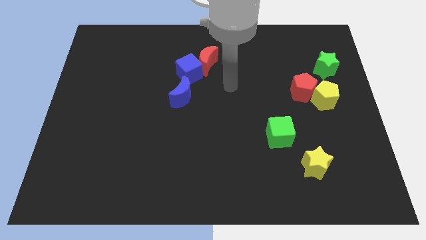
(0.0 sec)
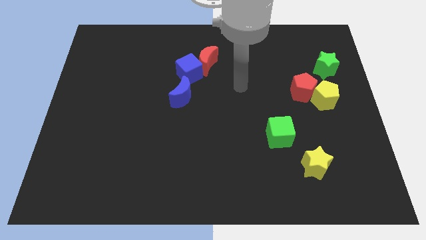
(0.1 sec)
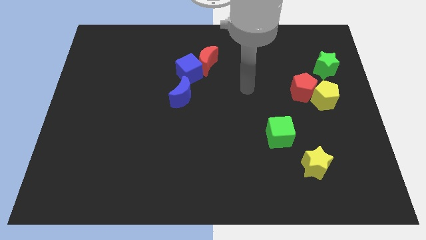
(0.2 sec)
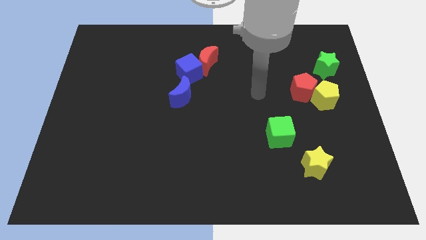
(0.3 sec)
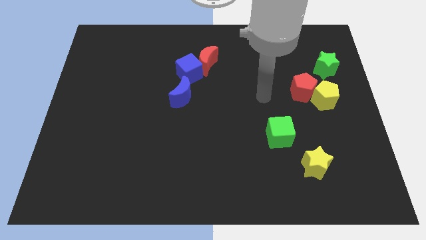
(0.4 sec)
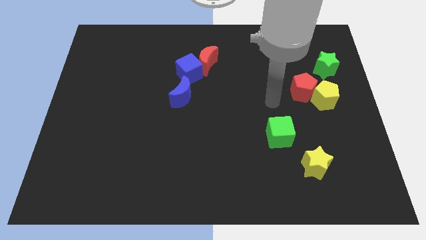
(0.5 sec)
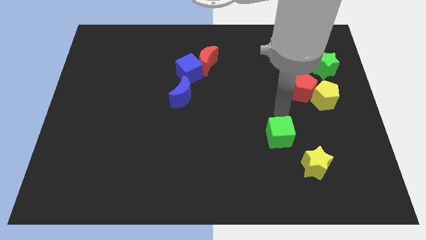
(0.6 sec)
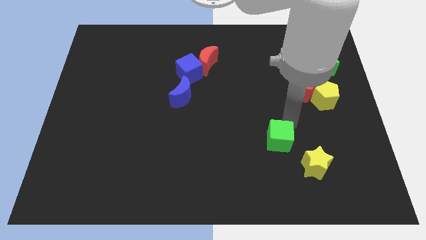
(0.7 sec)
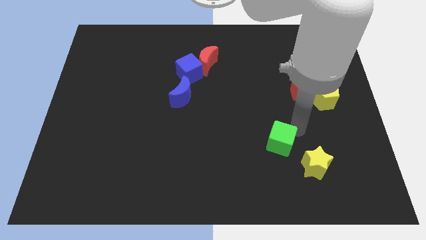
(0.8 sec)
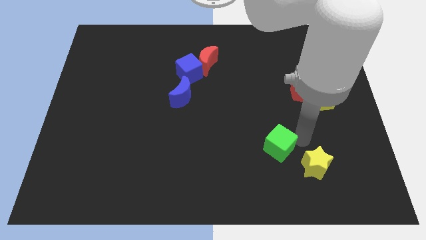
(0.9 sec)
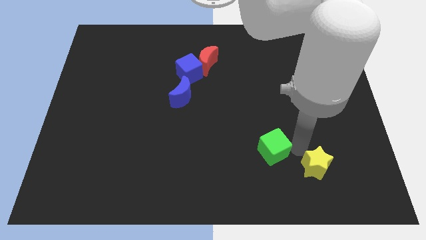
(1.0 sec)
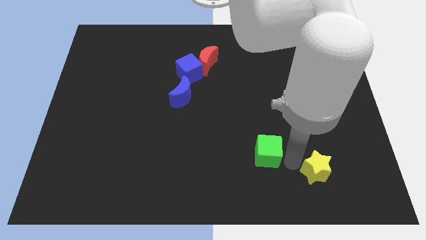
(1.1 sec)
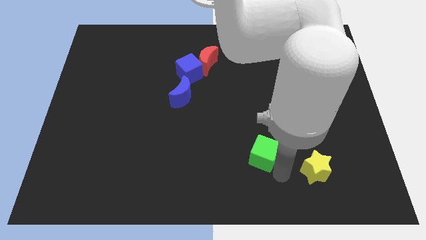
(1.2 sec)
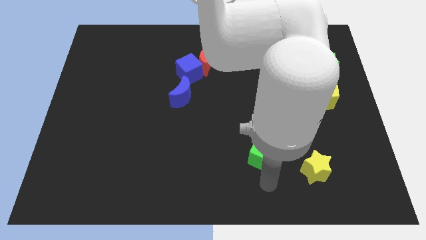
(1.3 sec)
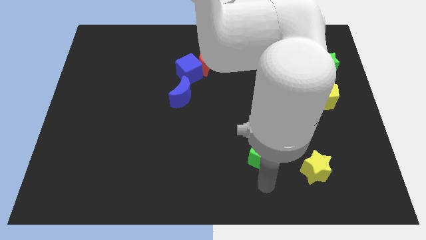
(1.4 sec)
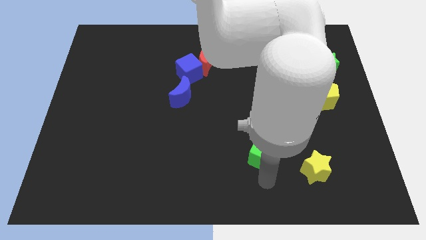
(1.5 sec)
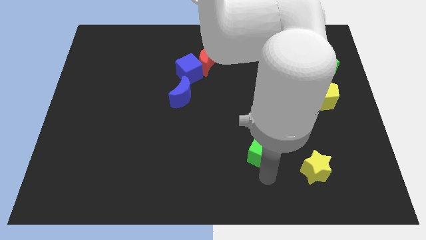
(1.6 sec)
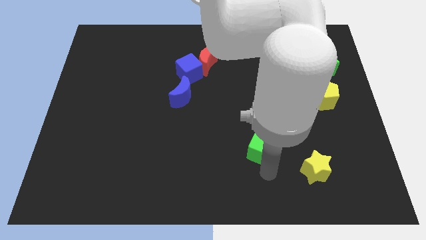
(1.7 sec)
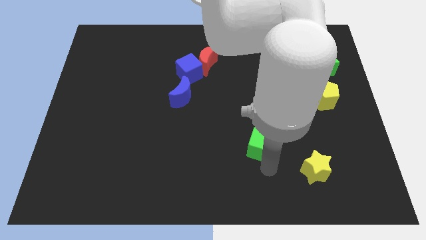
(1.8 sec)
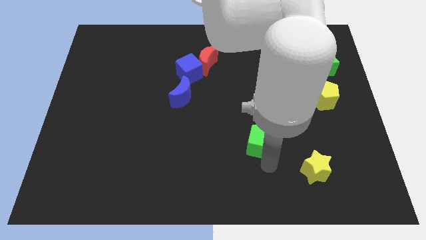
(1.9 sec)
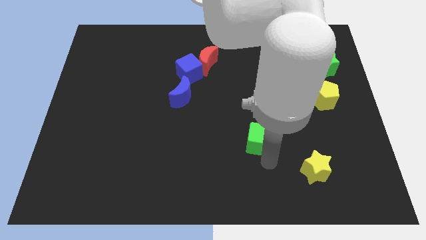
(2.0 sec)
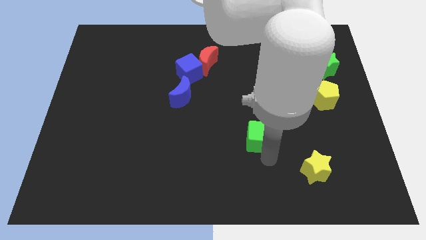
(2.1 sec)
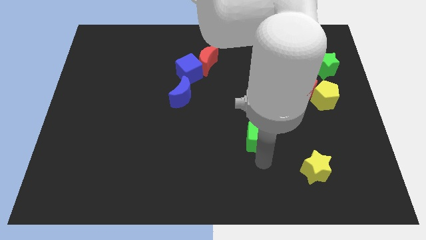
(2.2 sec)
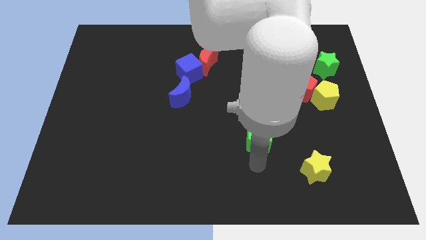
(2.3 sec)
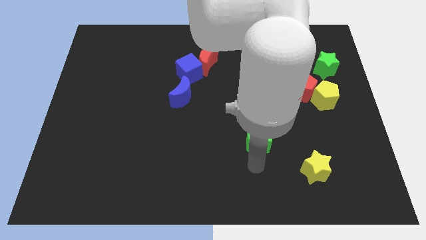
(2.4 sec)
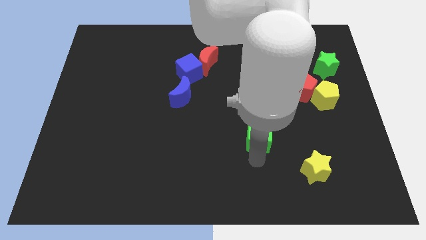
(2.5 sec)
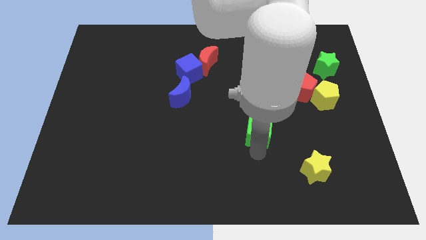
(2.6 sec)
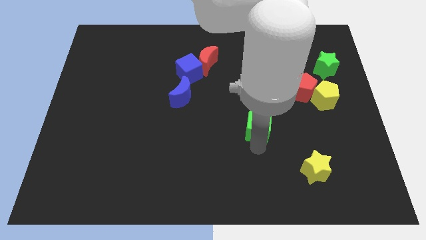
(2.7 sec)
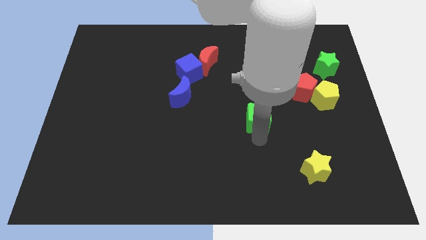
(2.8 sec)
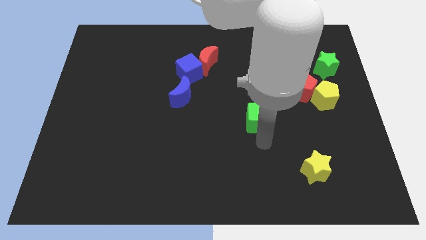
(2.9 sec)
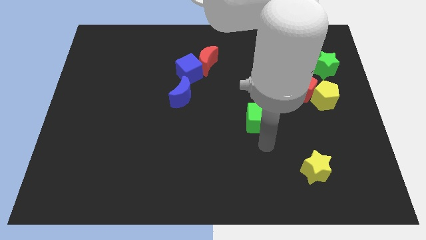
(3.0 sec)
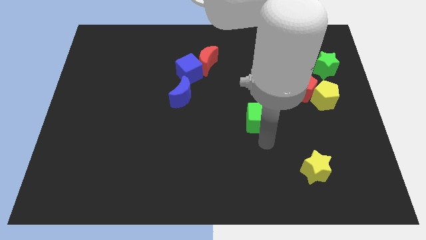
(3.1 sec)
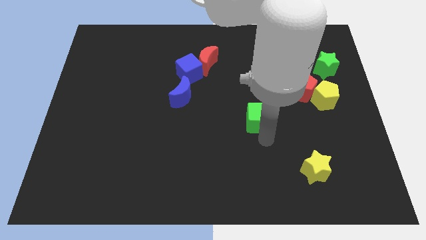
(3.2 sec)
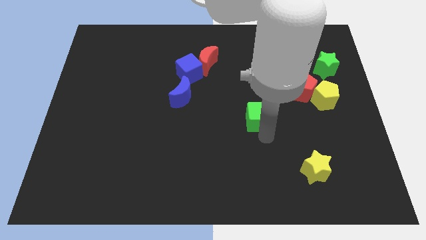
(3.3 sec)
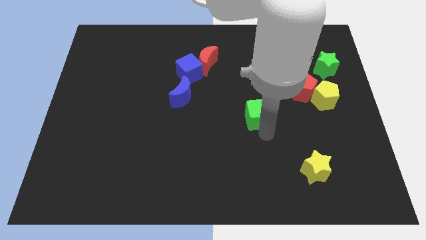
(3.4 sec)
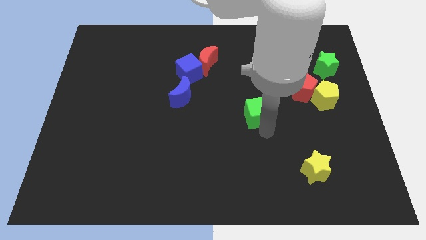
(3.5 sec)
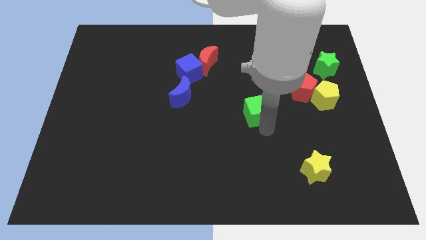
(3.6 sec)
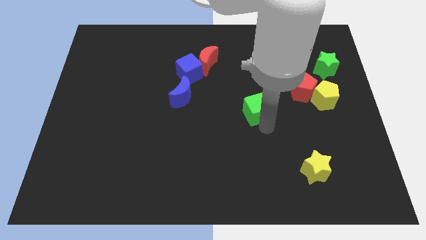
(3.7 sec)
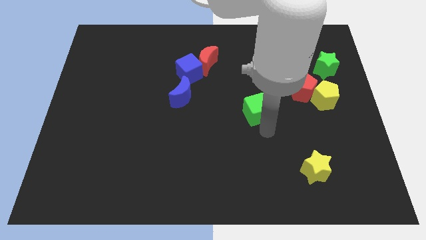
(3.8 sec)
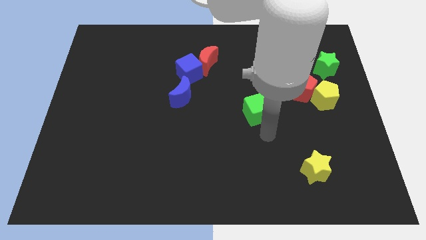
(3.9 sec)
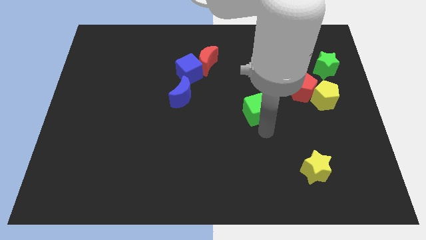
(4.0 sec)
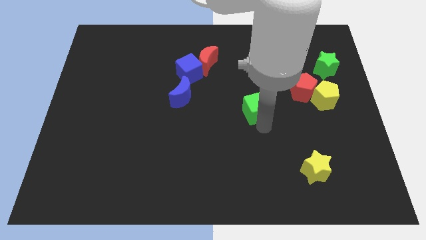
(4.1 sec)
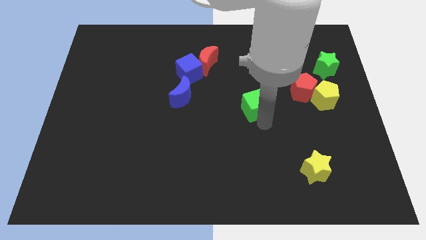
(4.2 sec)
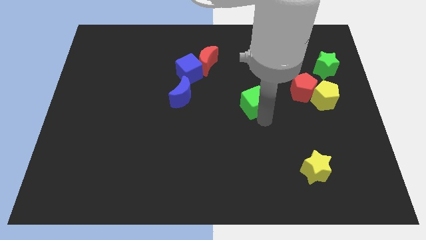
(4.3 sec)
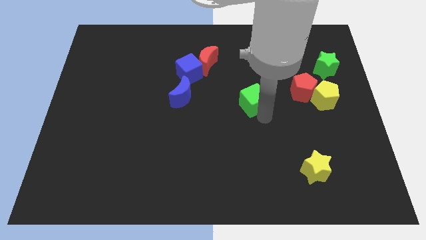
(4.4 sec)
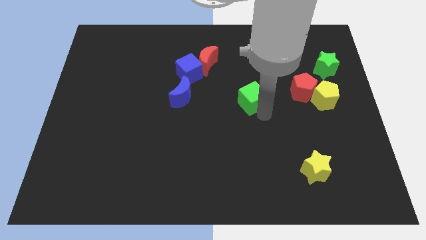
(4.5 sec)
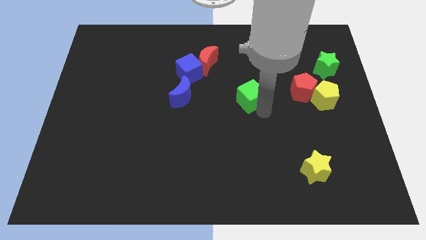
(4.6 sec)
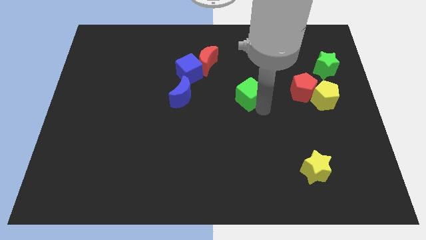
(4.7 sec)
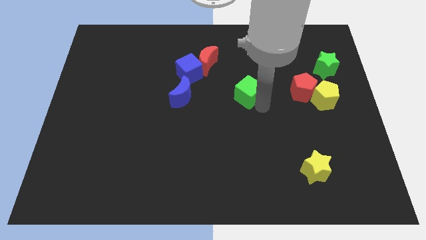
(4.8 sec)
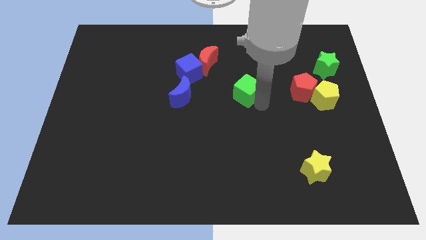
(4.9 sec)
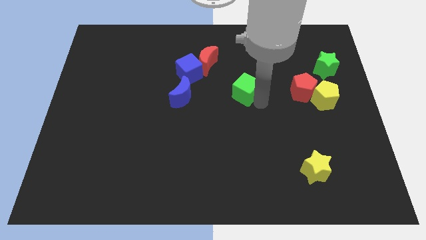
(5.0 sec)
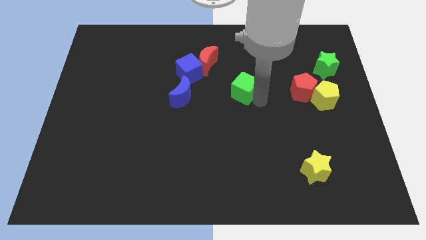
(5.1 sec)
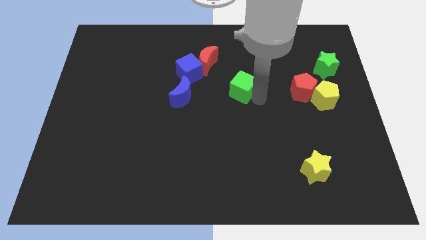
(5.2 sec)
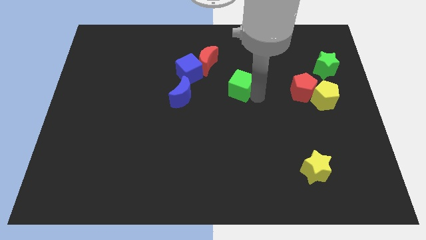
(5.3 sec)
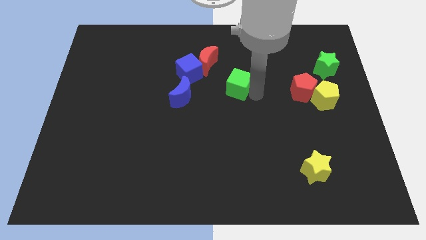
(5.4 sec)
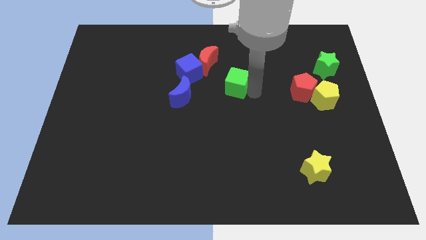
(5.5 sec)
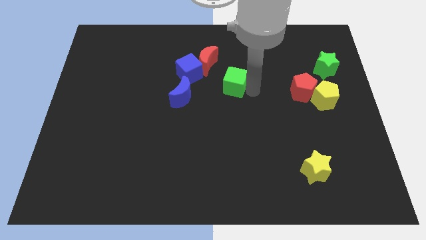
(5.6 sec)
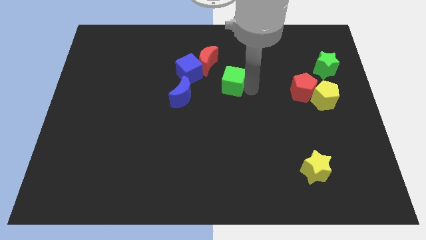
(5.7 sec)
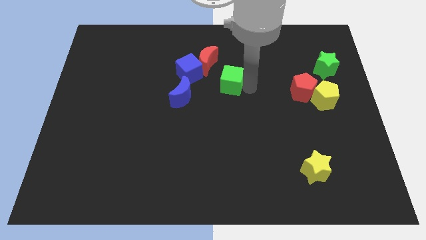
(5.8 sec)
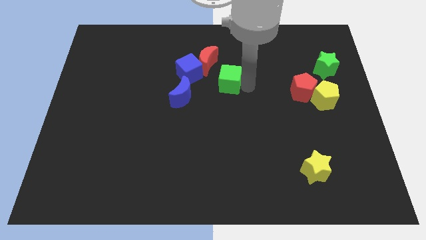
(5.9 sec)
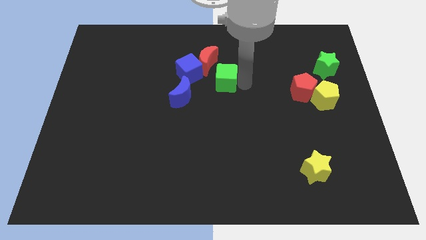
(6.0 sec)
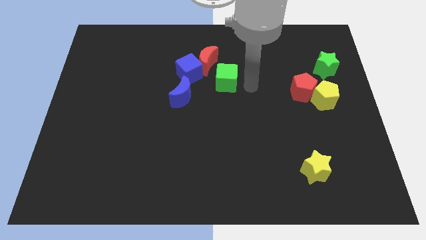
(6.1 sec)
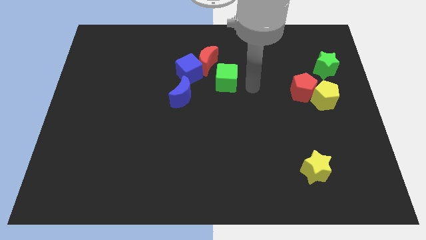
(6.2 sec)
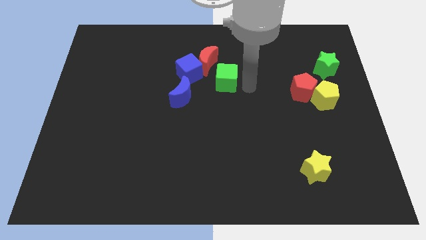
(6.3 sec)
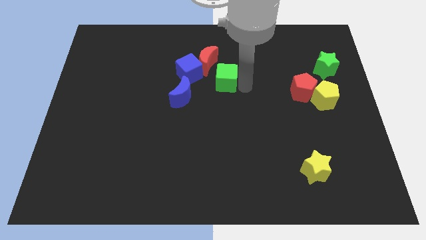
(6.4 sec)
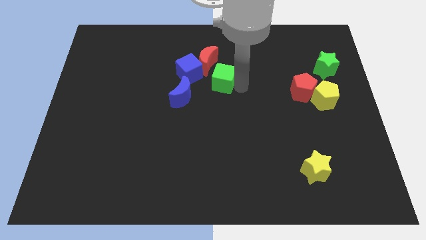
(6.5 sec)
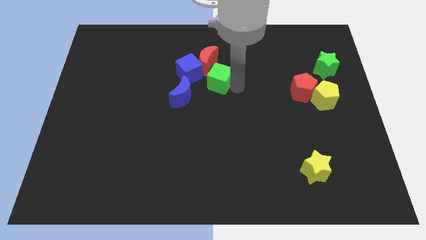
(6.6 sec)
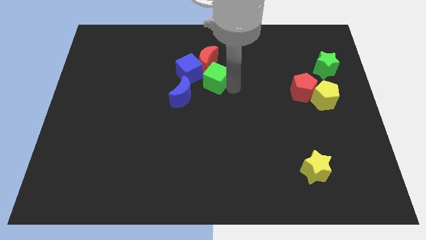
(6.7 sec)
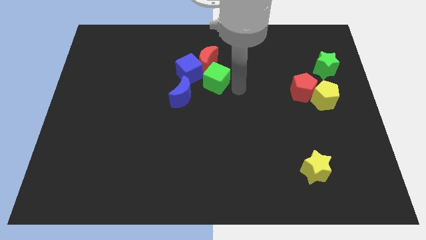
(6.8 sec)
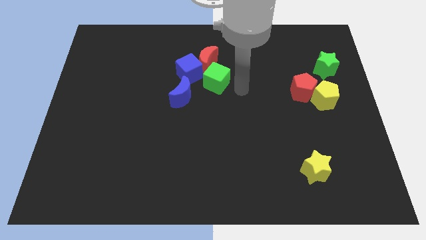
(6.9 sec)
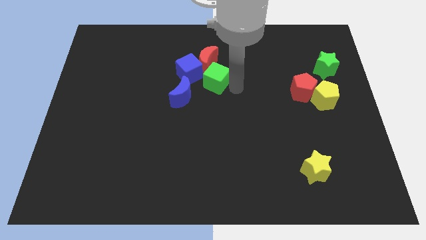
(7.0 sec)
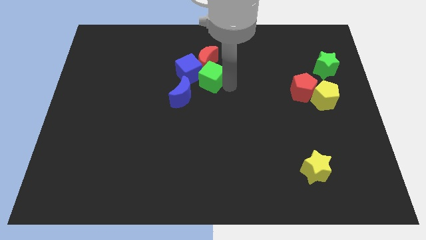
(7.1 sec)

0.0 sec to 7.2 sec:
push the green cube next to the blue cube

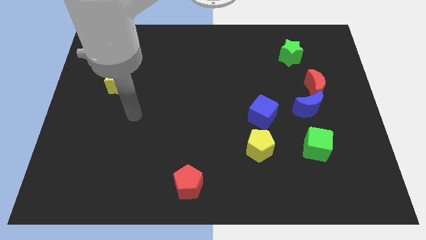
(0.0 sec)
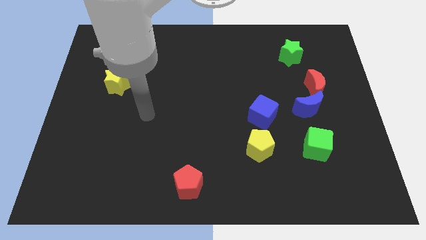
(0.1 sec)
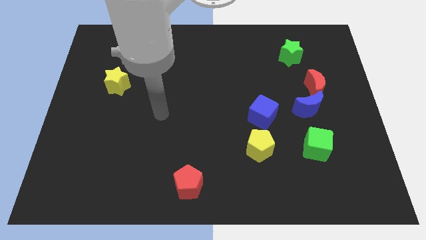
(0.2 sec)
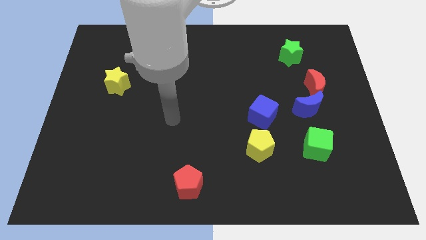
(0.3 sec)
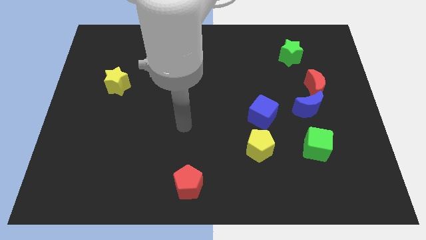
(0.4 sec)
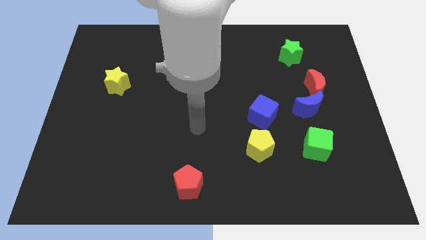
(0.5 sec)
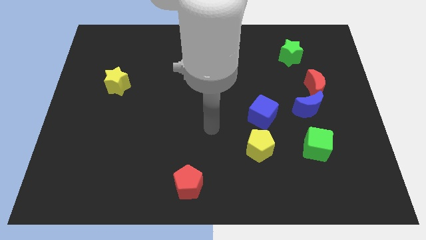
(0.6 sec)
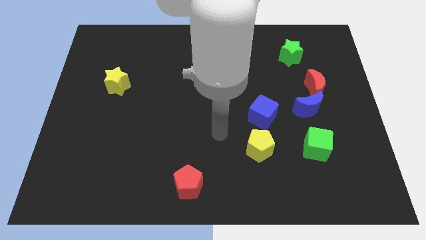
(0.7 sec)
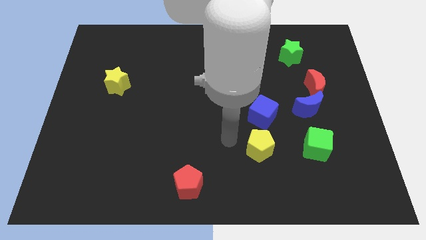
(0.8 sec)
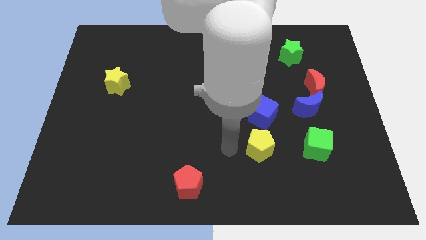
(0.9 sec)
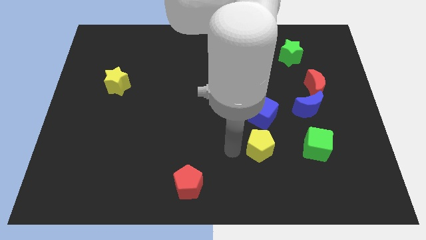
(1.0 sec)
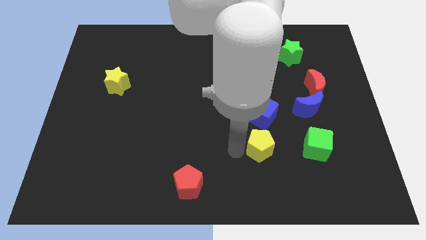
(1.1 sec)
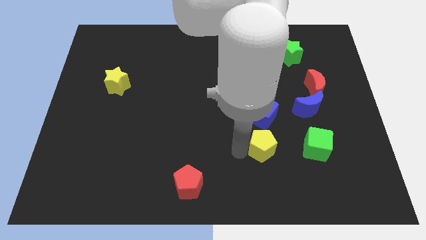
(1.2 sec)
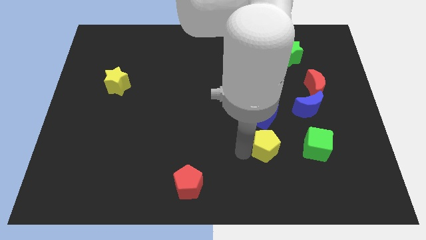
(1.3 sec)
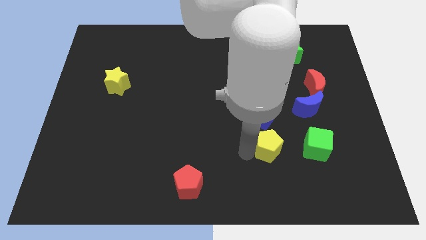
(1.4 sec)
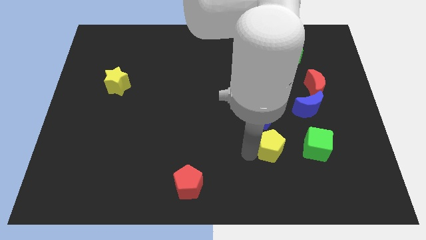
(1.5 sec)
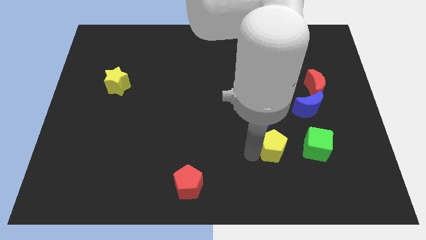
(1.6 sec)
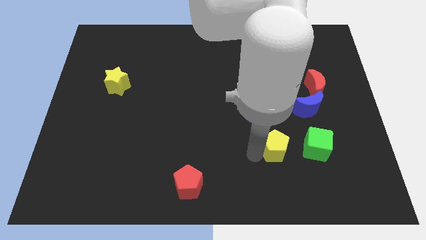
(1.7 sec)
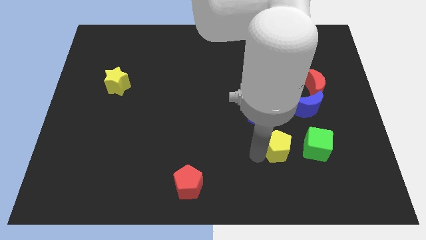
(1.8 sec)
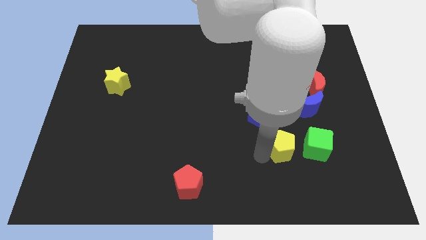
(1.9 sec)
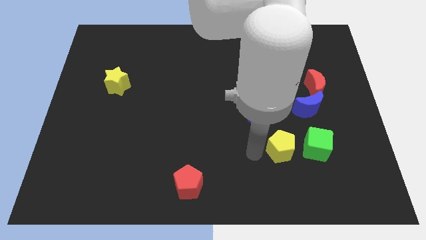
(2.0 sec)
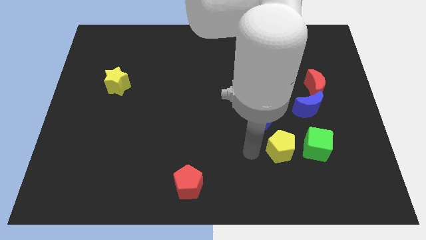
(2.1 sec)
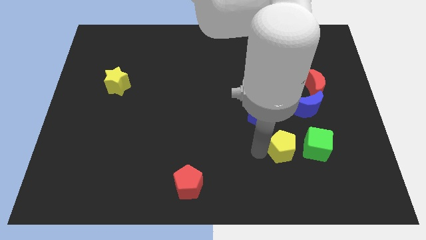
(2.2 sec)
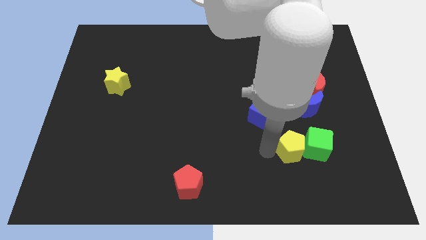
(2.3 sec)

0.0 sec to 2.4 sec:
slide the yellow pentagon close to the green cube
